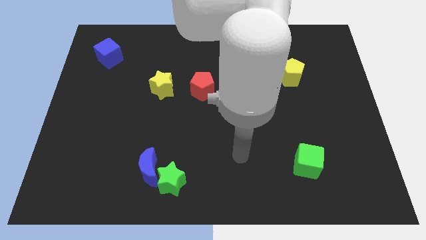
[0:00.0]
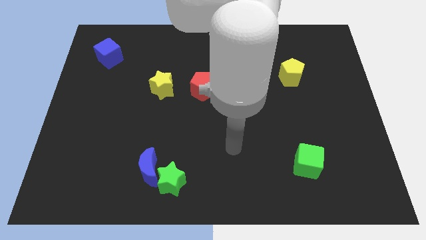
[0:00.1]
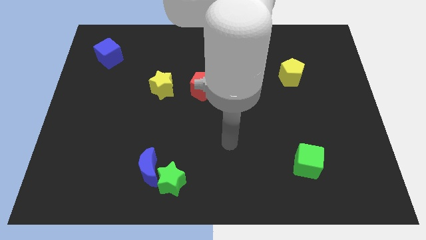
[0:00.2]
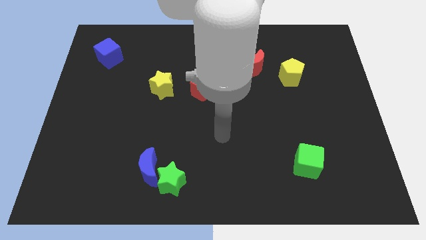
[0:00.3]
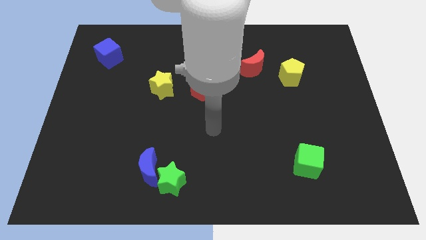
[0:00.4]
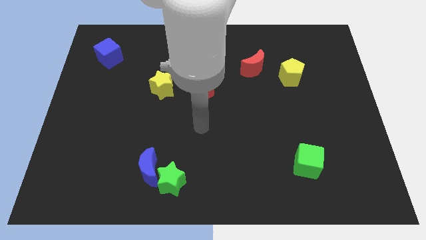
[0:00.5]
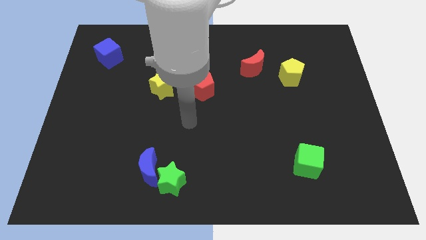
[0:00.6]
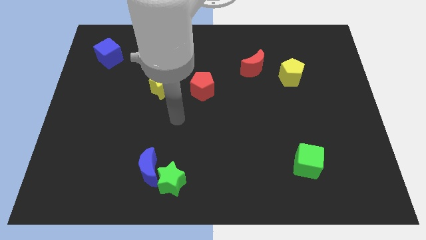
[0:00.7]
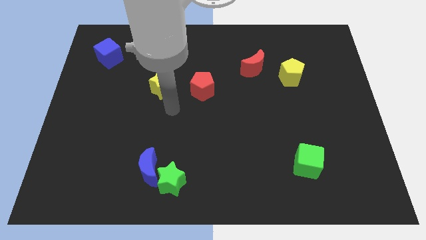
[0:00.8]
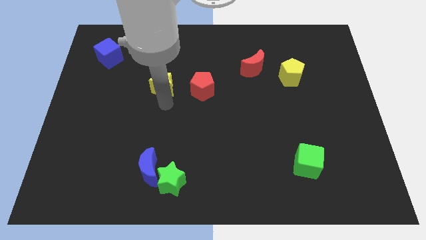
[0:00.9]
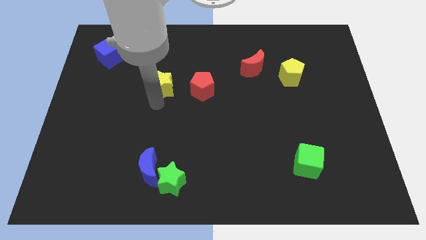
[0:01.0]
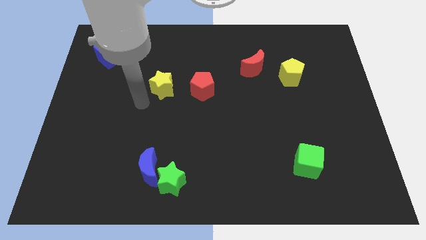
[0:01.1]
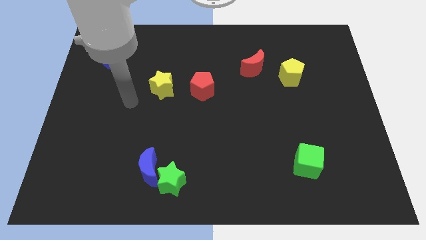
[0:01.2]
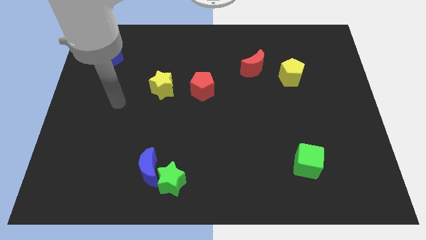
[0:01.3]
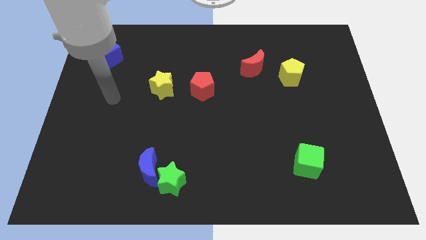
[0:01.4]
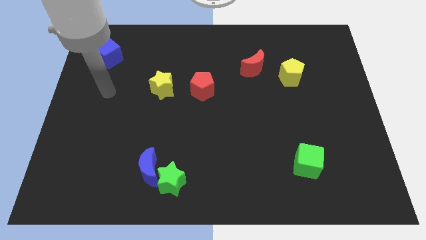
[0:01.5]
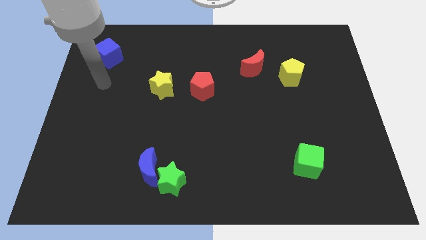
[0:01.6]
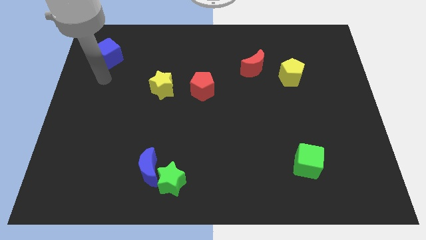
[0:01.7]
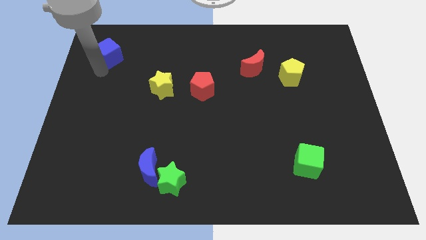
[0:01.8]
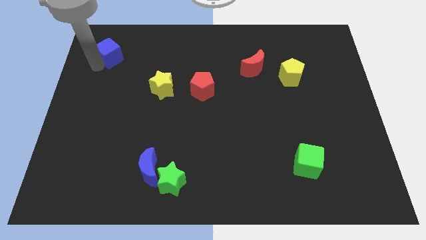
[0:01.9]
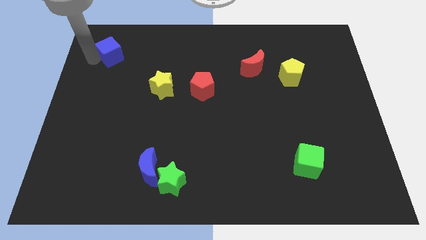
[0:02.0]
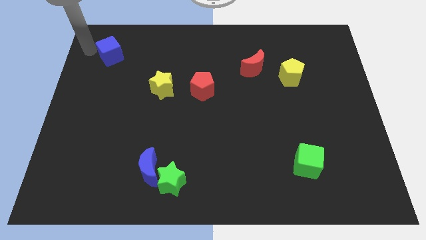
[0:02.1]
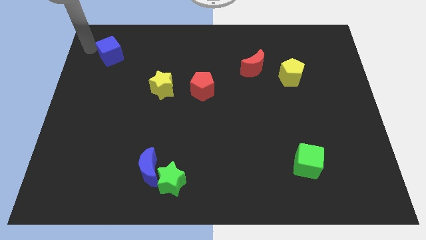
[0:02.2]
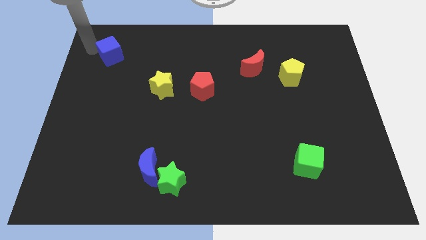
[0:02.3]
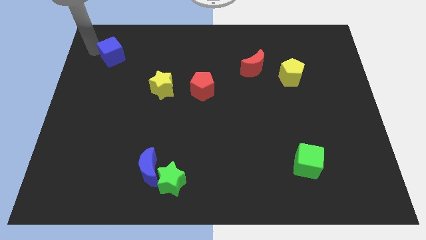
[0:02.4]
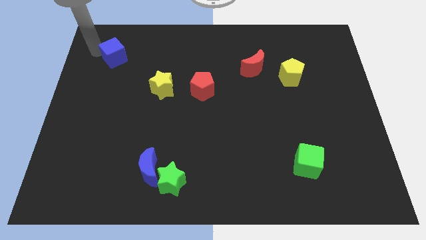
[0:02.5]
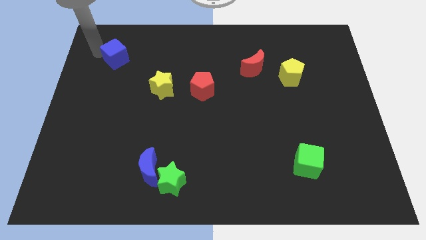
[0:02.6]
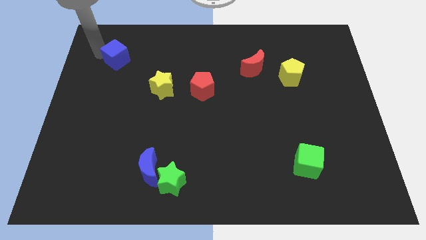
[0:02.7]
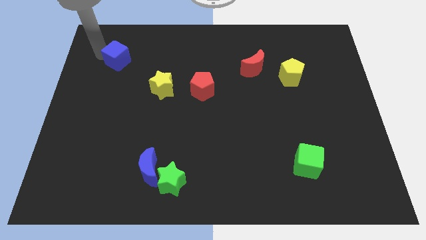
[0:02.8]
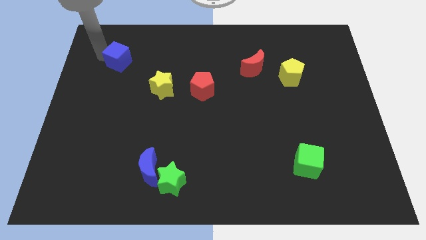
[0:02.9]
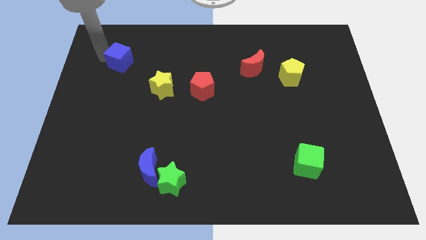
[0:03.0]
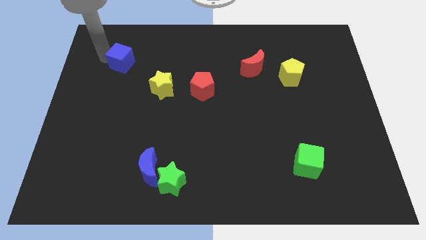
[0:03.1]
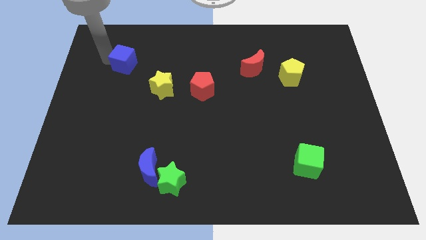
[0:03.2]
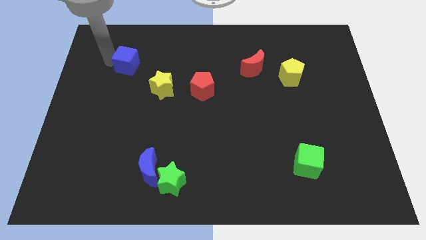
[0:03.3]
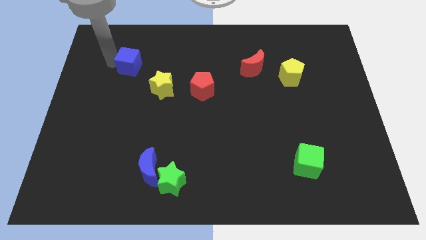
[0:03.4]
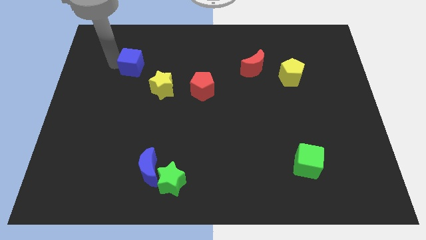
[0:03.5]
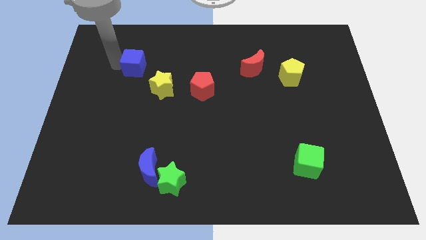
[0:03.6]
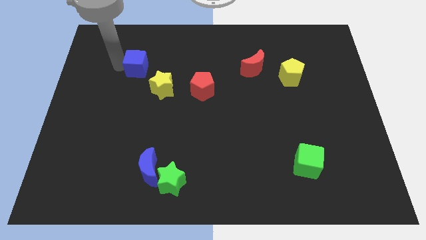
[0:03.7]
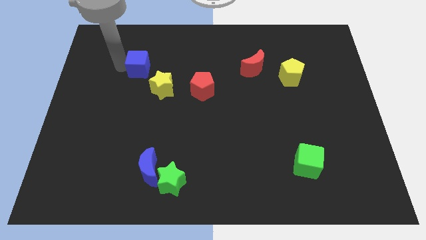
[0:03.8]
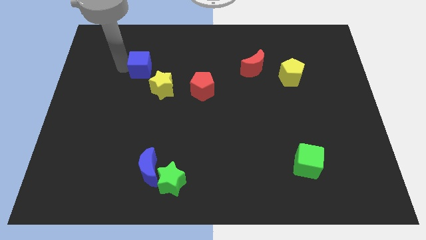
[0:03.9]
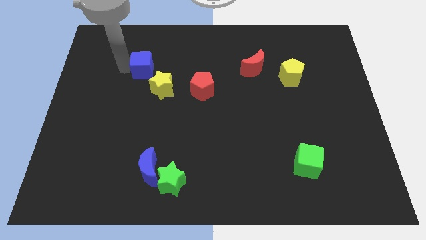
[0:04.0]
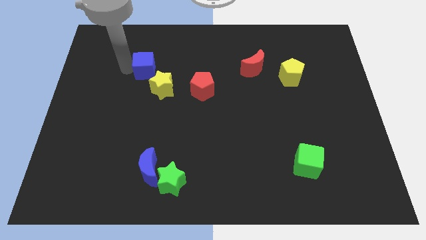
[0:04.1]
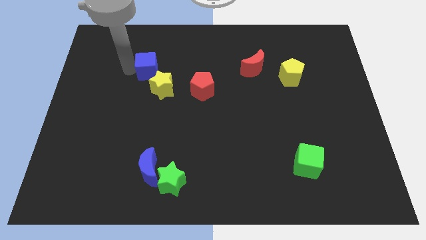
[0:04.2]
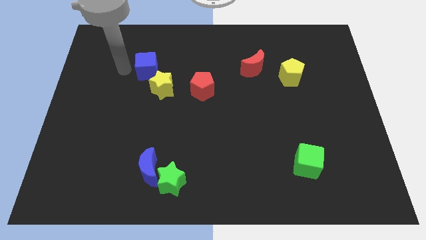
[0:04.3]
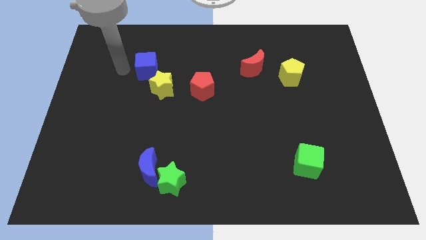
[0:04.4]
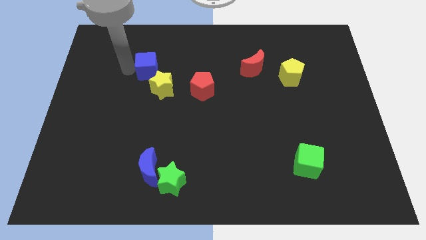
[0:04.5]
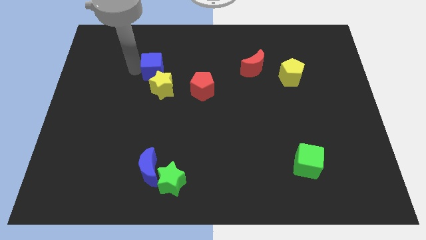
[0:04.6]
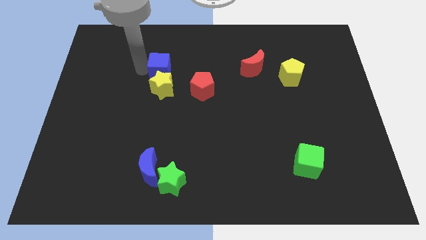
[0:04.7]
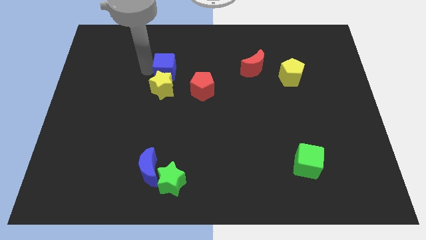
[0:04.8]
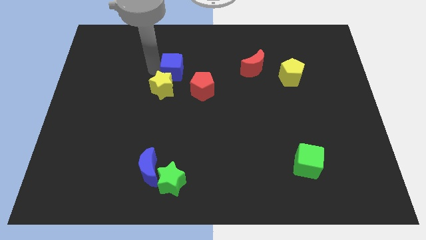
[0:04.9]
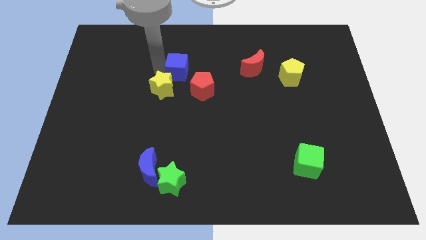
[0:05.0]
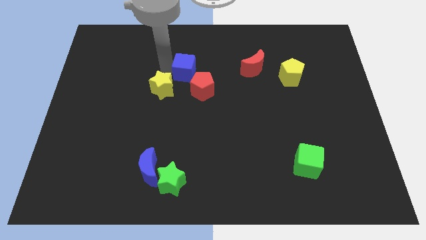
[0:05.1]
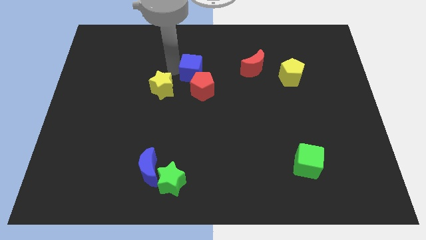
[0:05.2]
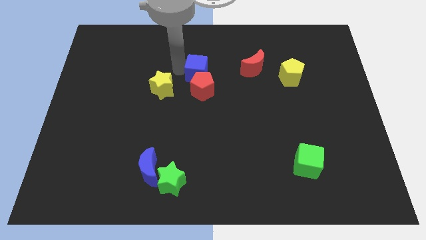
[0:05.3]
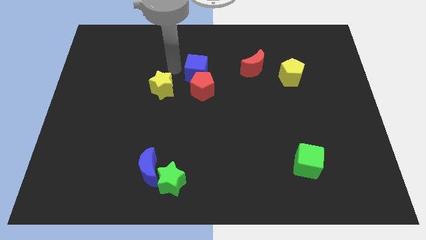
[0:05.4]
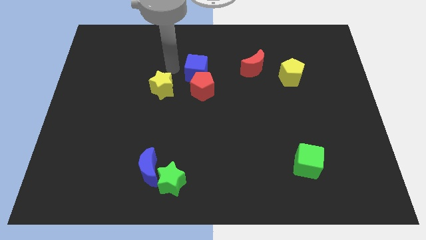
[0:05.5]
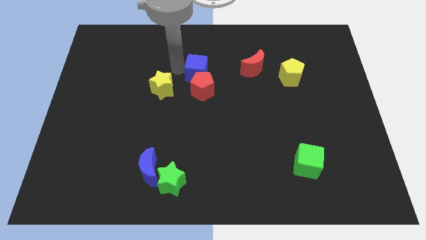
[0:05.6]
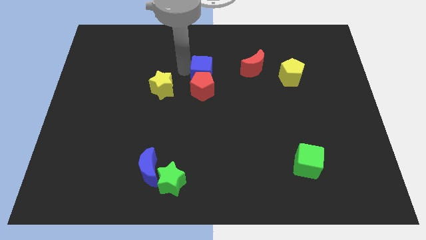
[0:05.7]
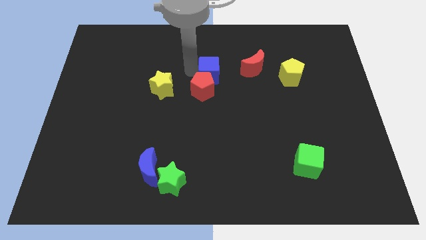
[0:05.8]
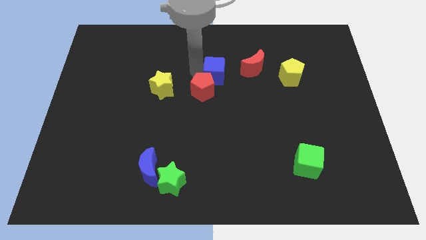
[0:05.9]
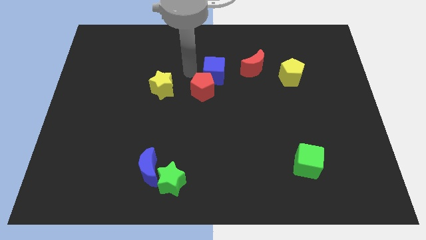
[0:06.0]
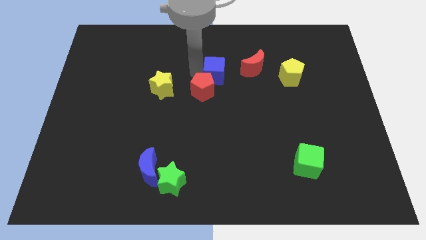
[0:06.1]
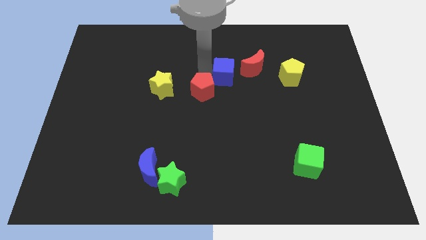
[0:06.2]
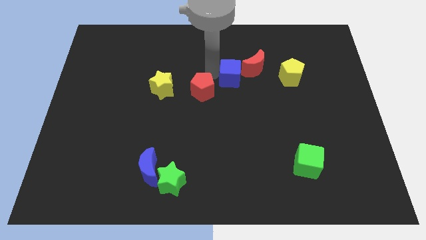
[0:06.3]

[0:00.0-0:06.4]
push the blue cube left of the yellow pentagon

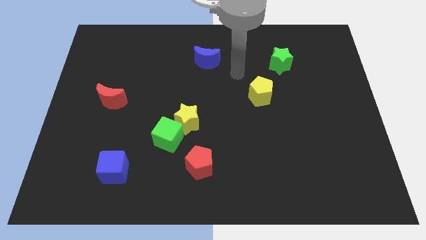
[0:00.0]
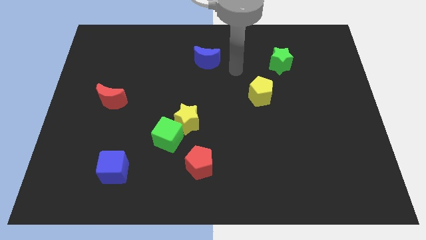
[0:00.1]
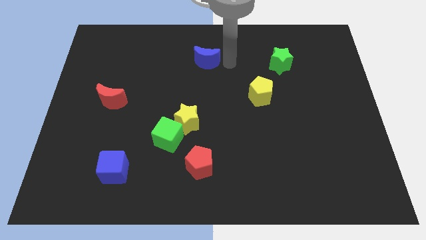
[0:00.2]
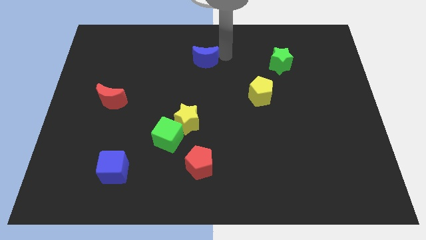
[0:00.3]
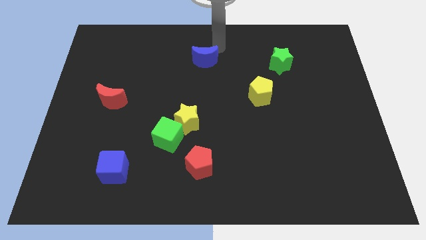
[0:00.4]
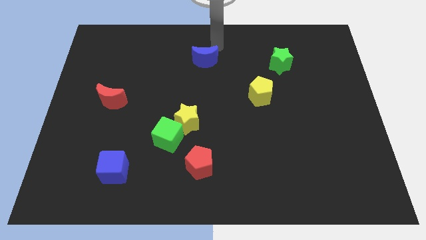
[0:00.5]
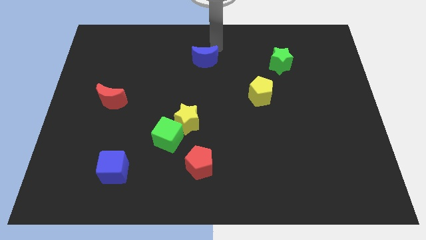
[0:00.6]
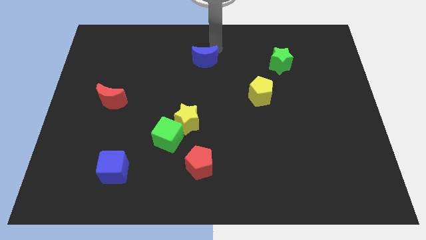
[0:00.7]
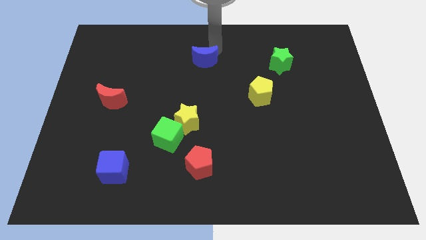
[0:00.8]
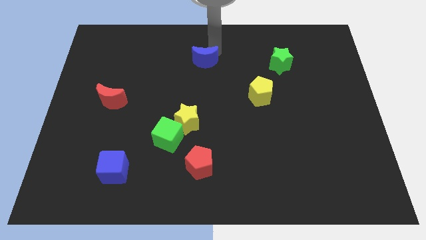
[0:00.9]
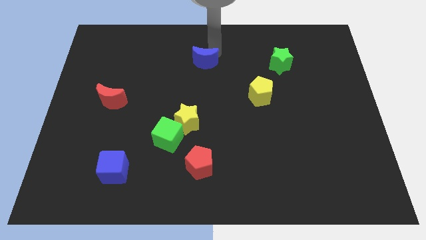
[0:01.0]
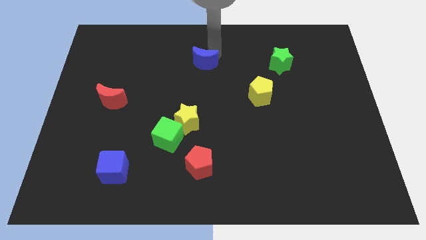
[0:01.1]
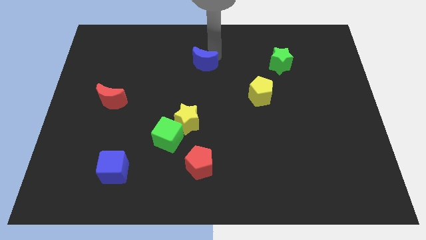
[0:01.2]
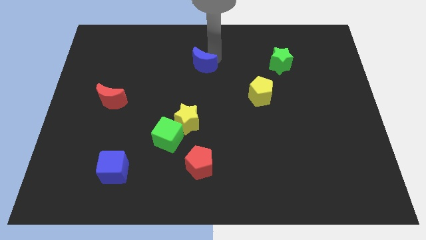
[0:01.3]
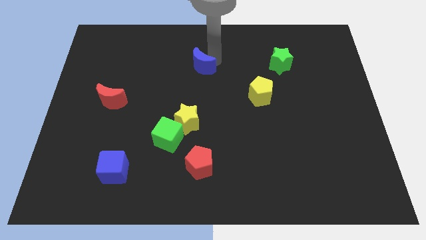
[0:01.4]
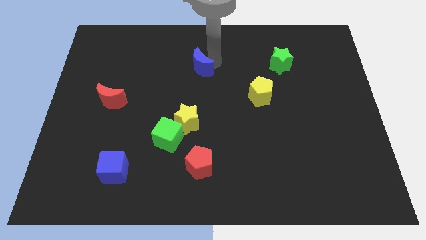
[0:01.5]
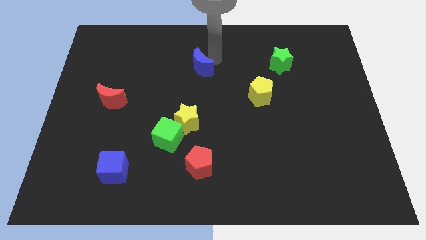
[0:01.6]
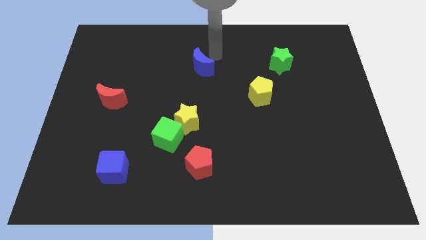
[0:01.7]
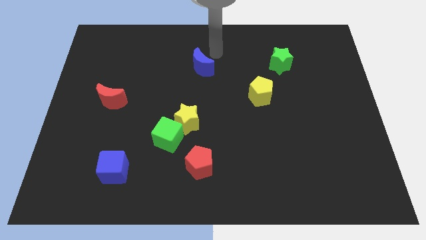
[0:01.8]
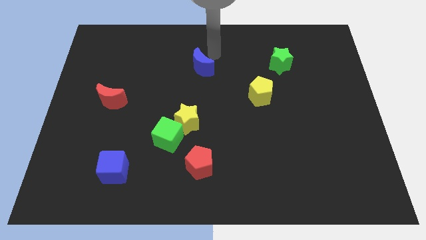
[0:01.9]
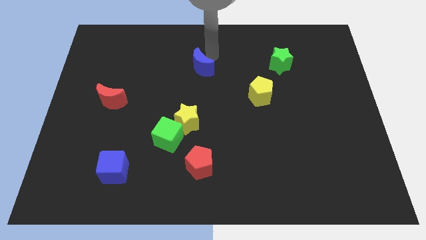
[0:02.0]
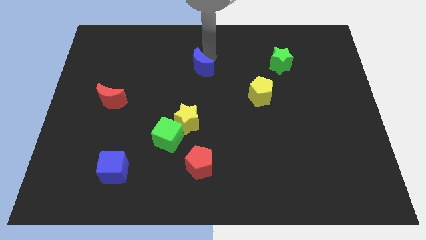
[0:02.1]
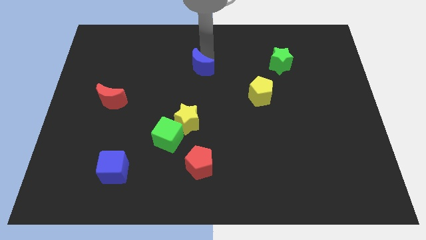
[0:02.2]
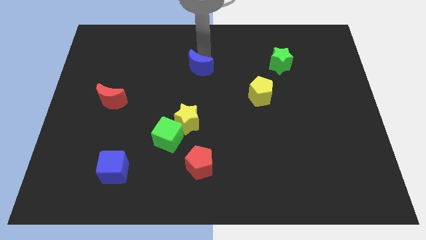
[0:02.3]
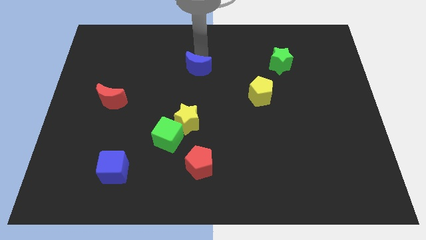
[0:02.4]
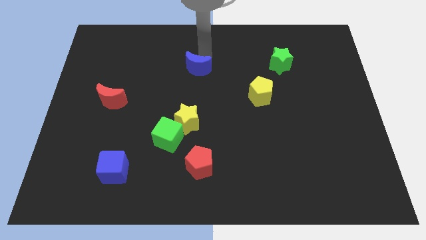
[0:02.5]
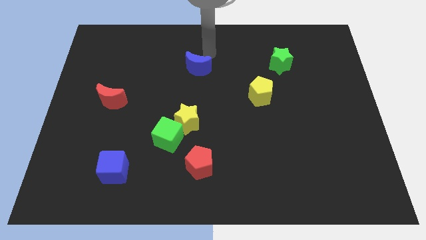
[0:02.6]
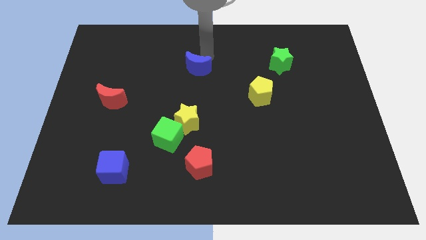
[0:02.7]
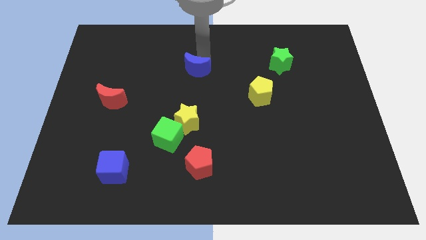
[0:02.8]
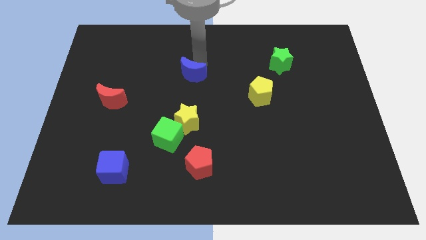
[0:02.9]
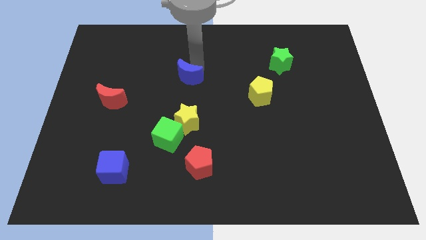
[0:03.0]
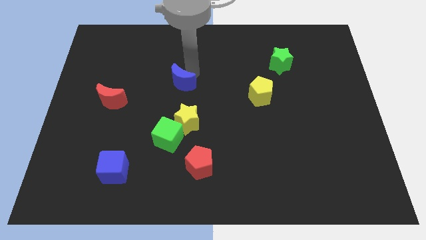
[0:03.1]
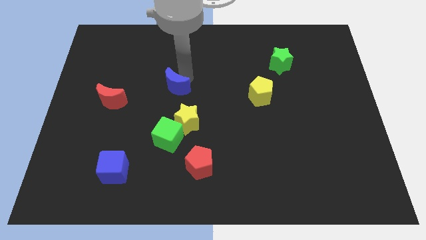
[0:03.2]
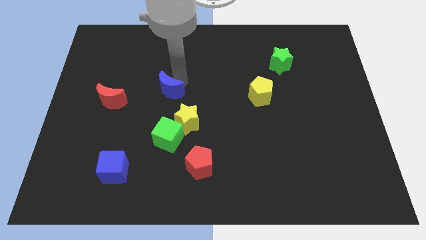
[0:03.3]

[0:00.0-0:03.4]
move the blue moon to the top left of the yellow star
